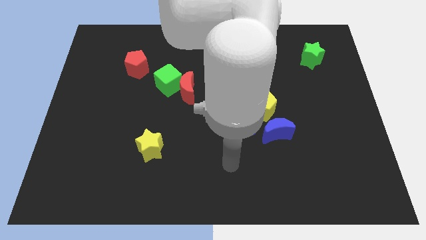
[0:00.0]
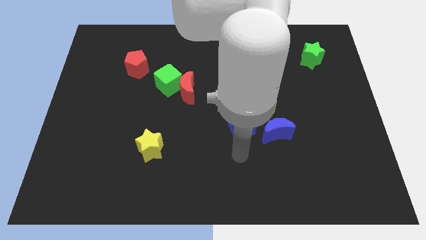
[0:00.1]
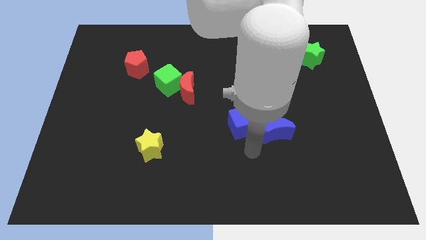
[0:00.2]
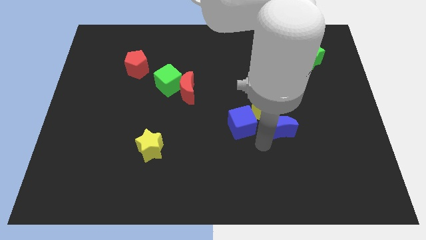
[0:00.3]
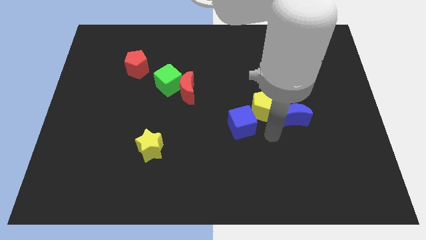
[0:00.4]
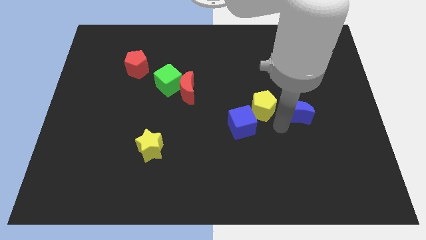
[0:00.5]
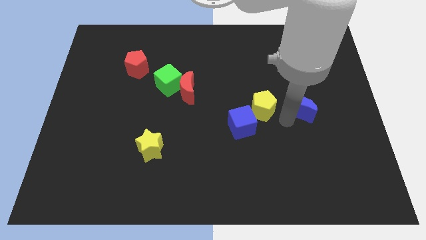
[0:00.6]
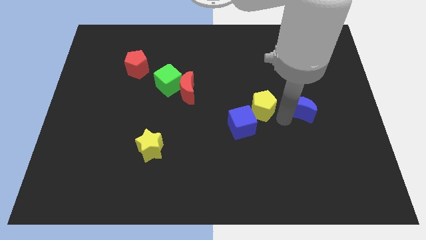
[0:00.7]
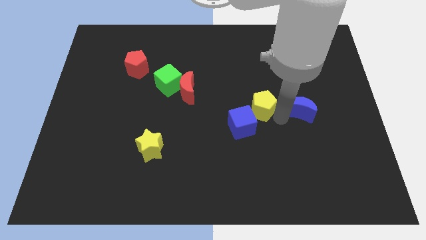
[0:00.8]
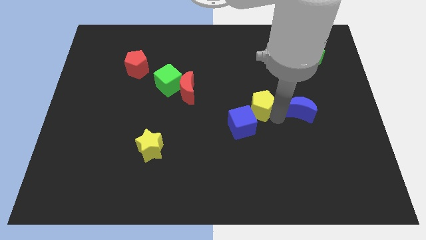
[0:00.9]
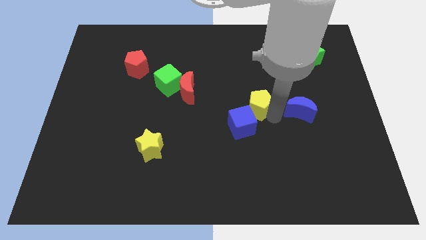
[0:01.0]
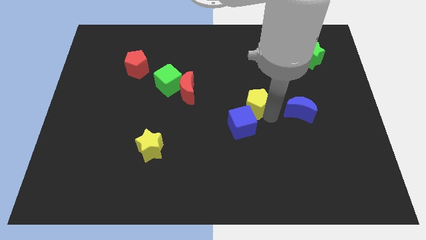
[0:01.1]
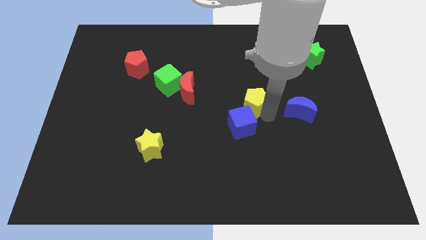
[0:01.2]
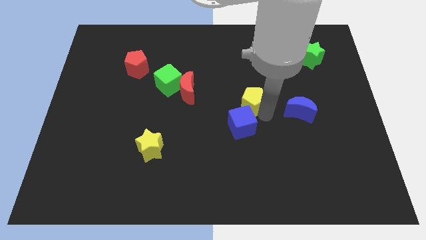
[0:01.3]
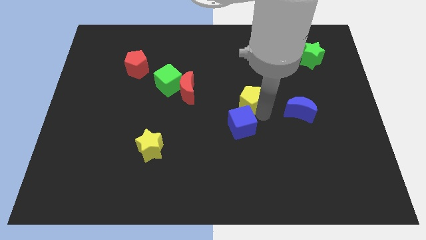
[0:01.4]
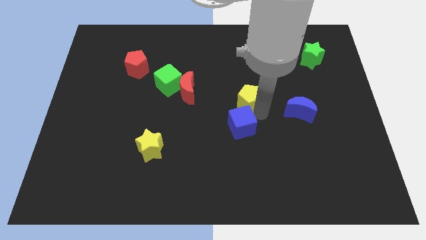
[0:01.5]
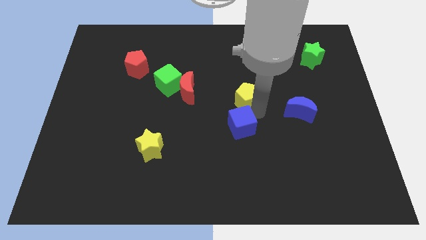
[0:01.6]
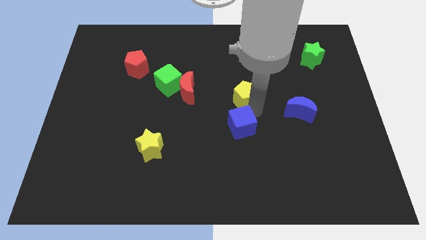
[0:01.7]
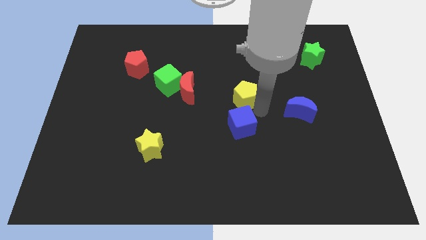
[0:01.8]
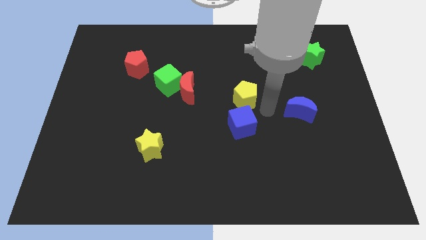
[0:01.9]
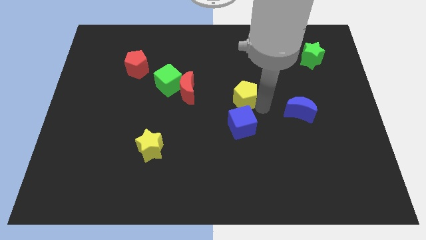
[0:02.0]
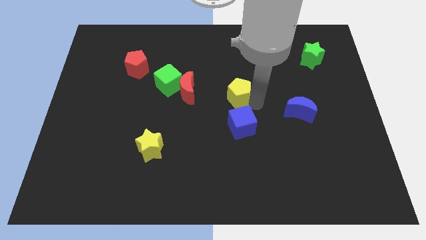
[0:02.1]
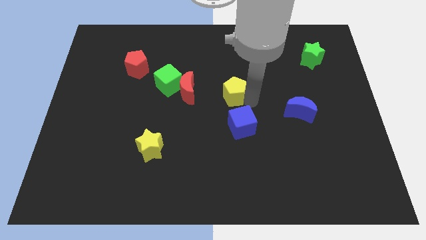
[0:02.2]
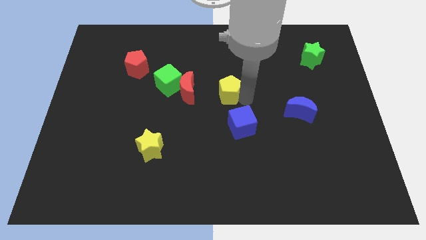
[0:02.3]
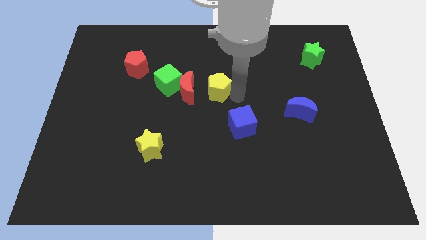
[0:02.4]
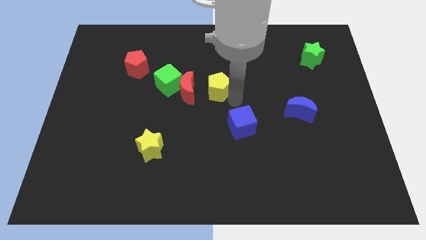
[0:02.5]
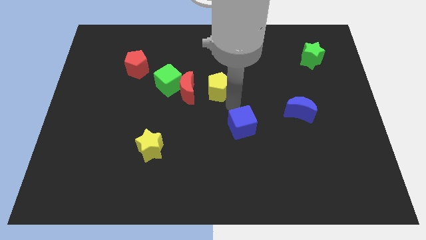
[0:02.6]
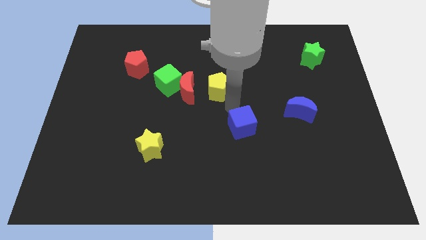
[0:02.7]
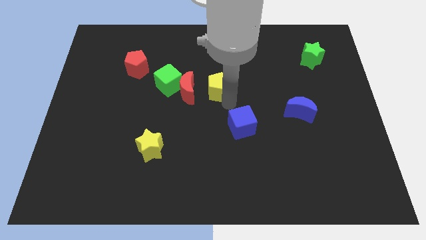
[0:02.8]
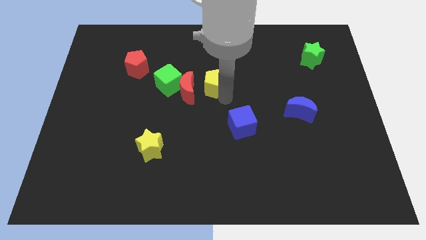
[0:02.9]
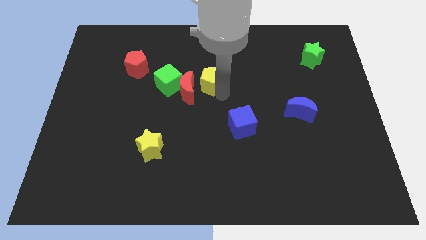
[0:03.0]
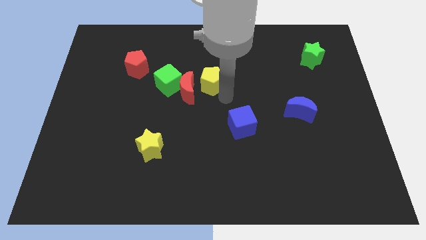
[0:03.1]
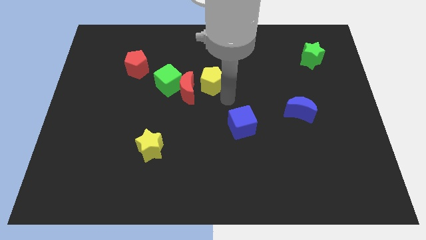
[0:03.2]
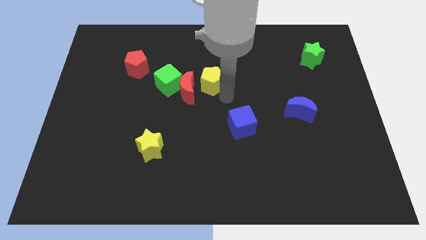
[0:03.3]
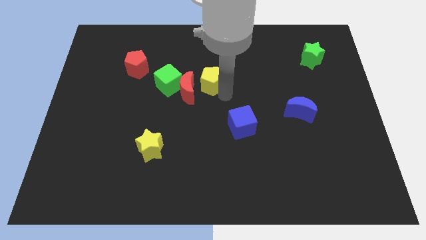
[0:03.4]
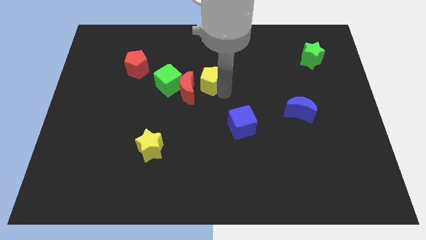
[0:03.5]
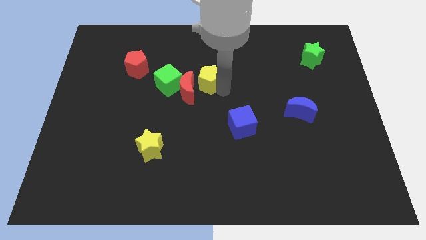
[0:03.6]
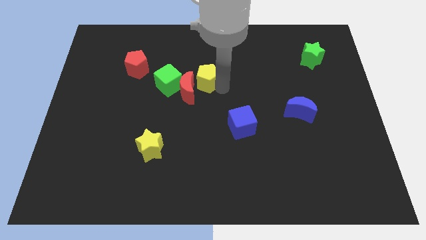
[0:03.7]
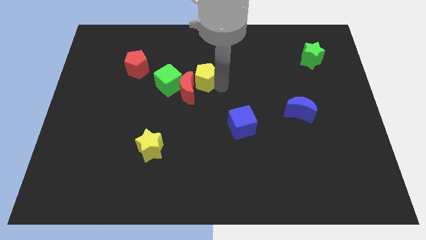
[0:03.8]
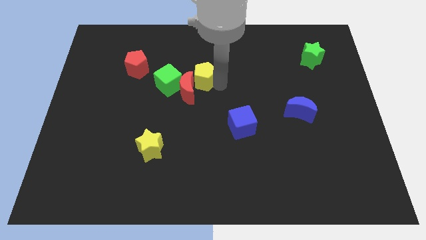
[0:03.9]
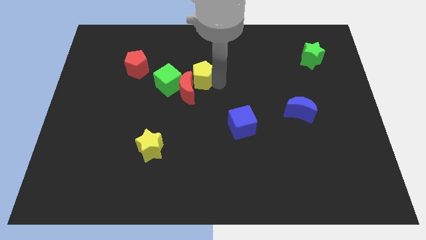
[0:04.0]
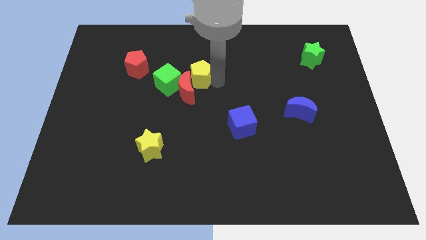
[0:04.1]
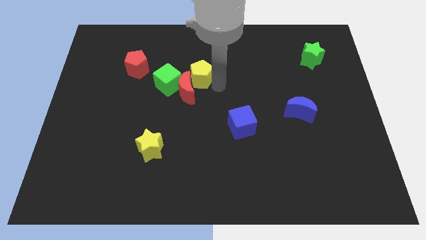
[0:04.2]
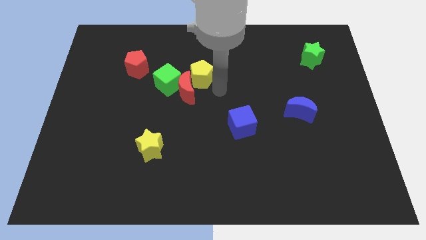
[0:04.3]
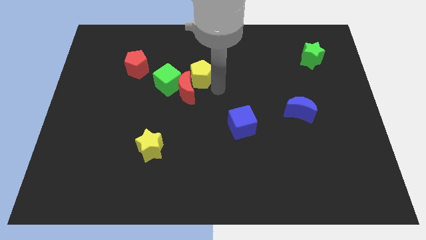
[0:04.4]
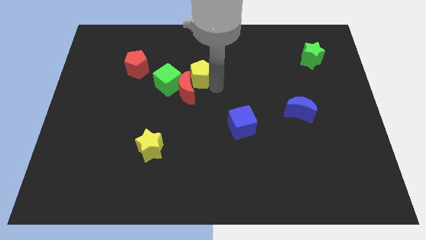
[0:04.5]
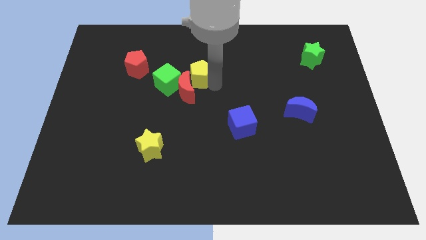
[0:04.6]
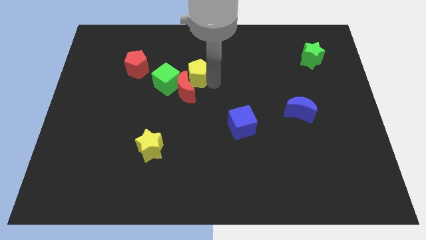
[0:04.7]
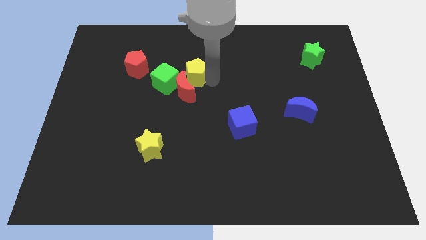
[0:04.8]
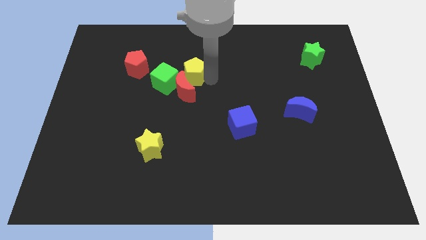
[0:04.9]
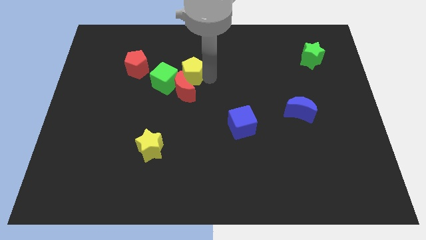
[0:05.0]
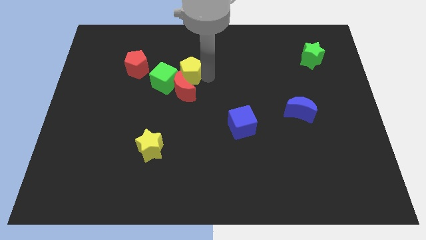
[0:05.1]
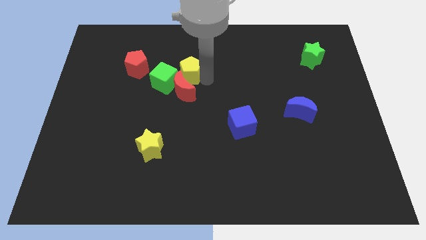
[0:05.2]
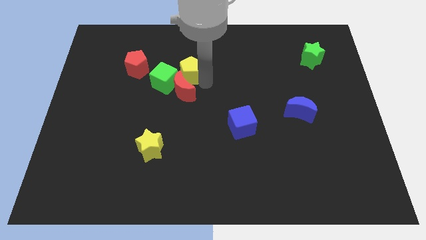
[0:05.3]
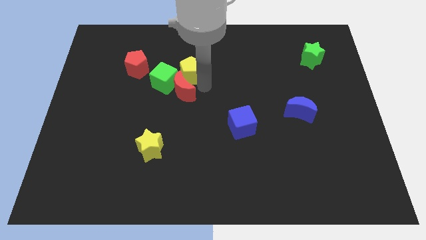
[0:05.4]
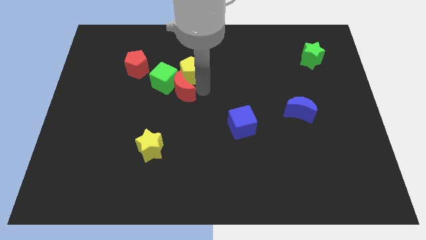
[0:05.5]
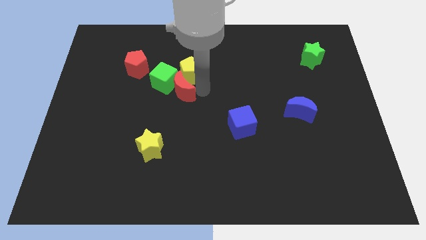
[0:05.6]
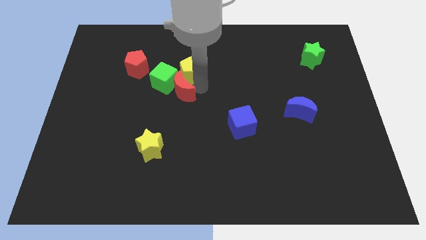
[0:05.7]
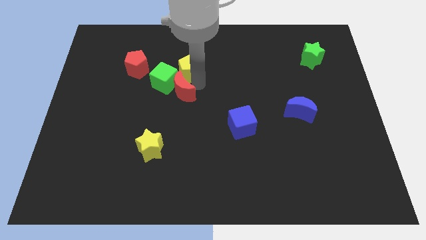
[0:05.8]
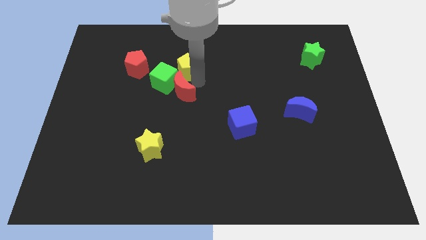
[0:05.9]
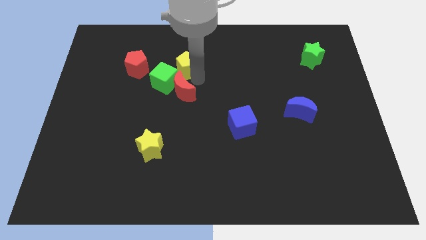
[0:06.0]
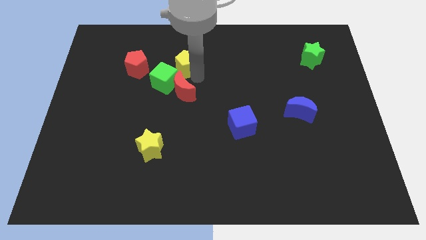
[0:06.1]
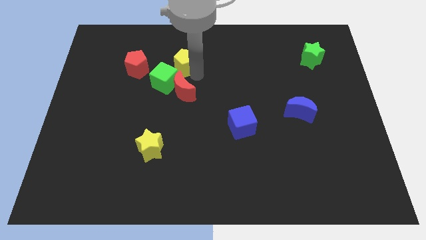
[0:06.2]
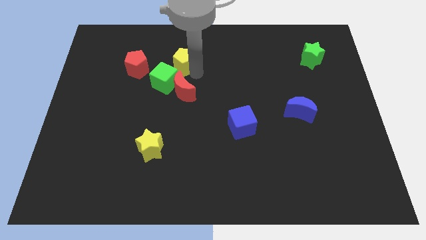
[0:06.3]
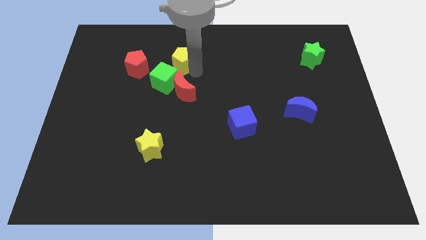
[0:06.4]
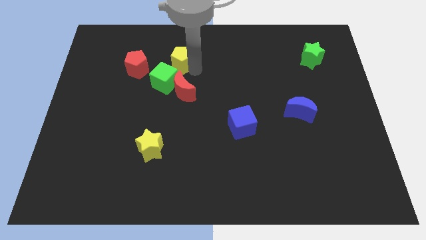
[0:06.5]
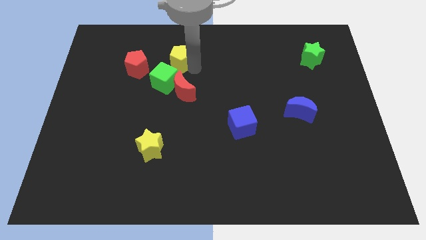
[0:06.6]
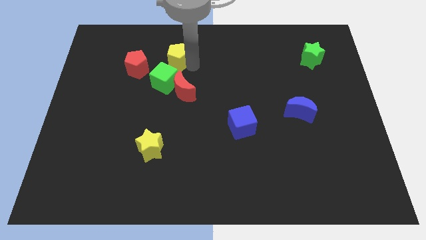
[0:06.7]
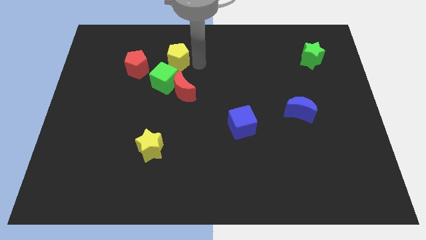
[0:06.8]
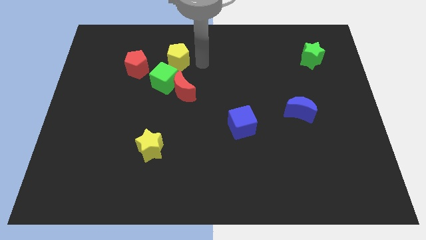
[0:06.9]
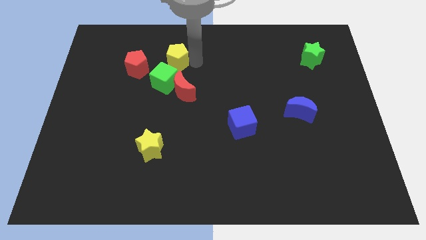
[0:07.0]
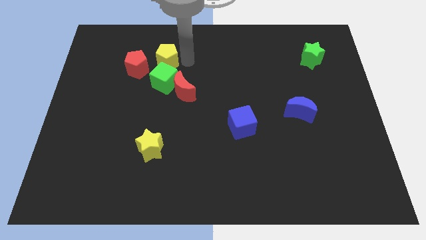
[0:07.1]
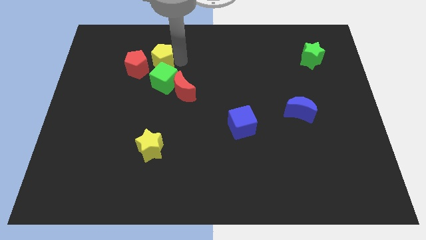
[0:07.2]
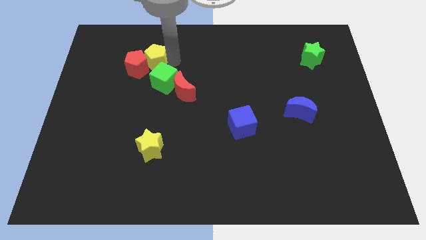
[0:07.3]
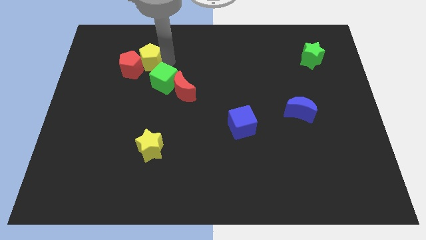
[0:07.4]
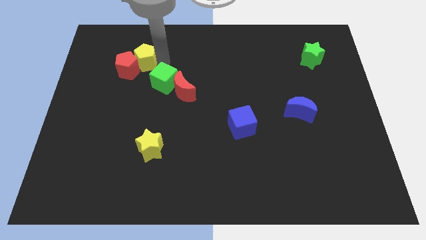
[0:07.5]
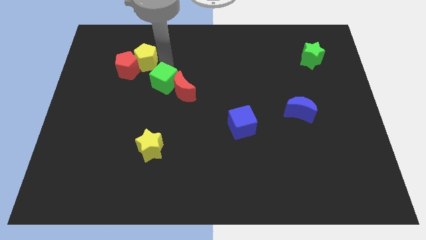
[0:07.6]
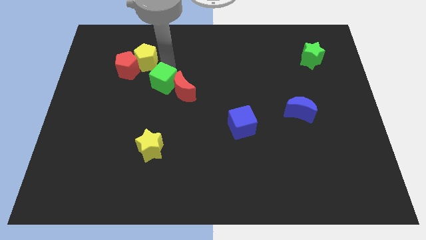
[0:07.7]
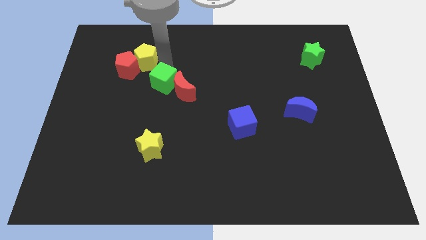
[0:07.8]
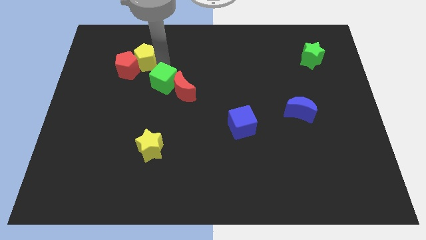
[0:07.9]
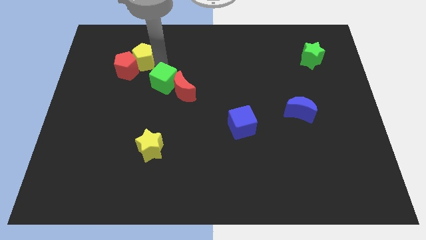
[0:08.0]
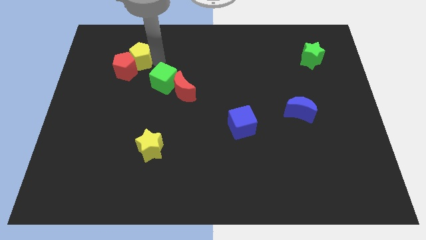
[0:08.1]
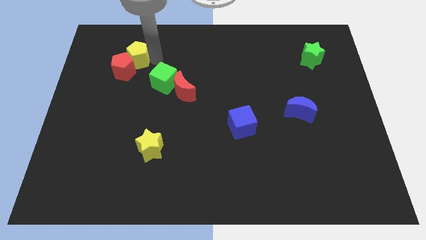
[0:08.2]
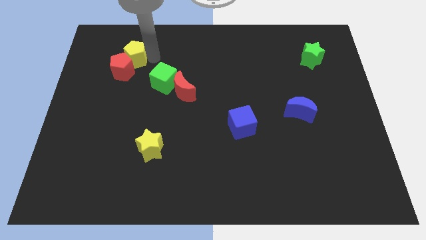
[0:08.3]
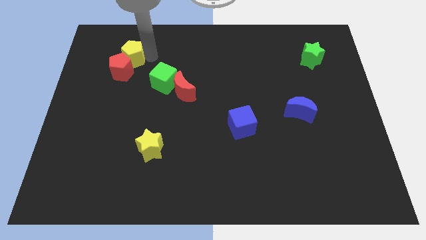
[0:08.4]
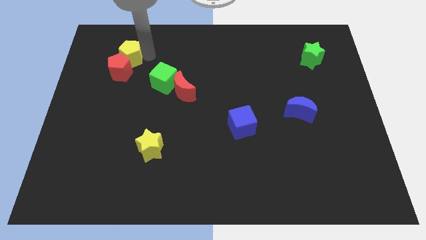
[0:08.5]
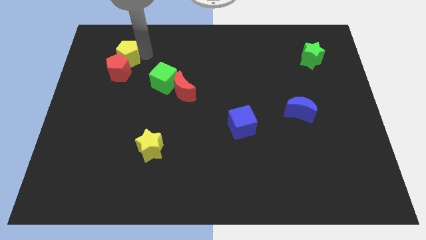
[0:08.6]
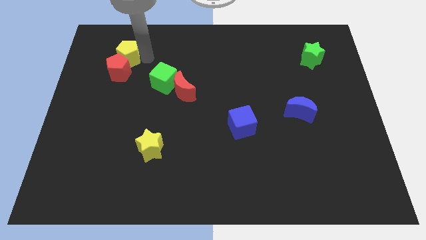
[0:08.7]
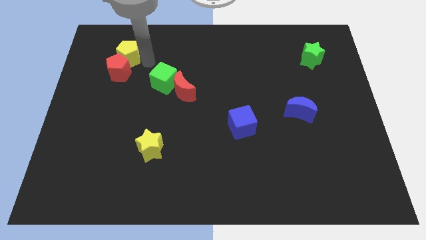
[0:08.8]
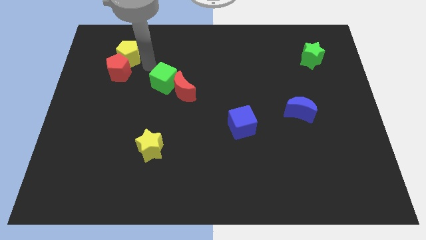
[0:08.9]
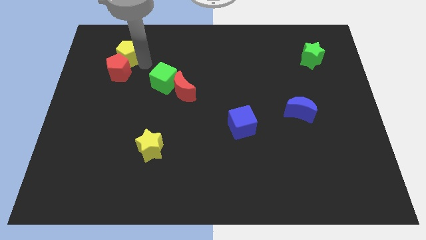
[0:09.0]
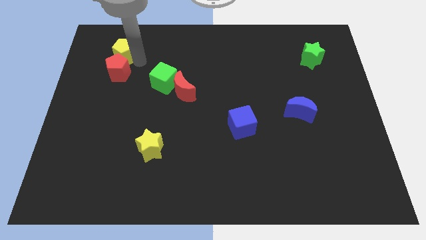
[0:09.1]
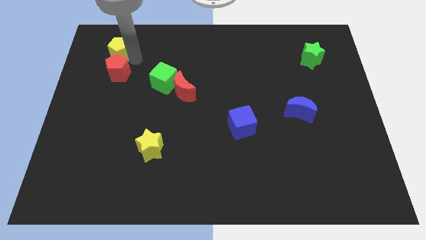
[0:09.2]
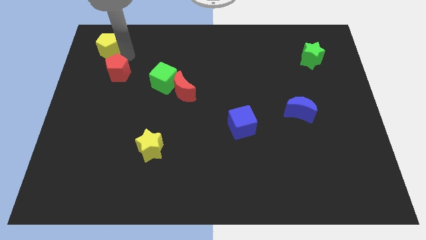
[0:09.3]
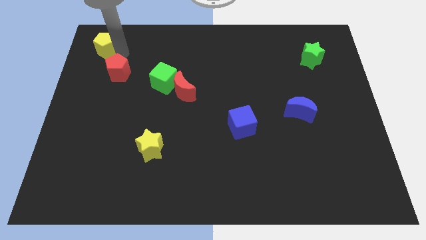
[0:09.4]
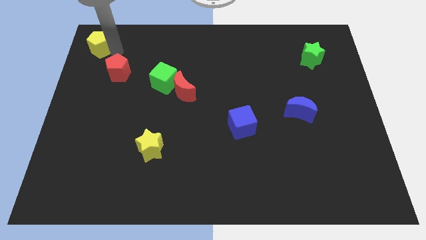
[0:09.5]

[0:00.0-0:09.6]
move the yellow pentagon to the top left of the board
